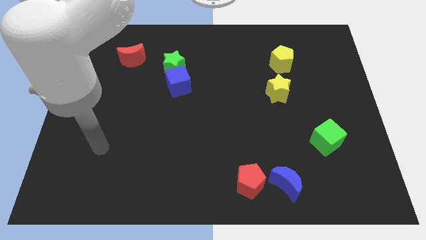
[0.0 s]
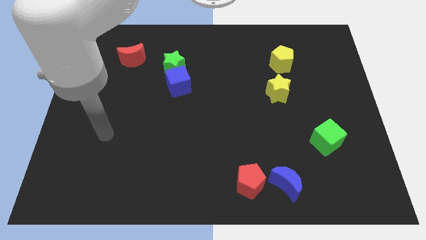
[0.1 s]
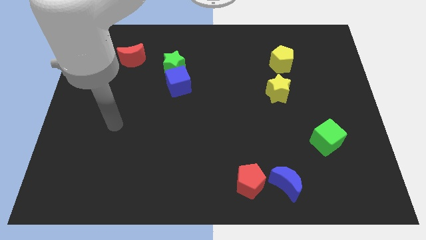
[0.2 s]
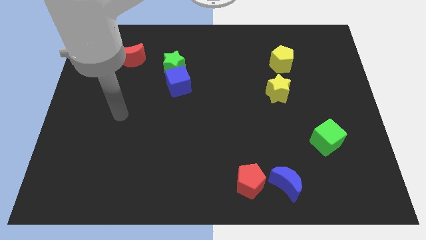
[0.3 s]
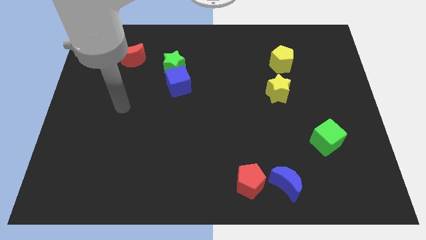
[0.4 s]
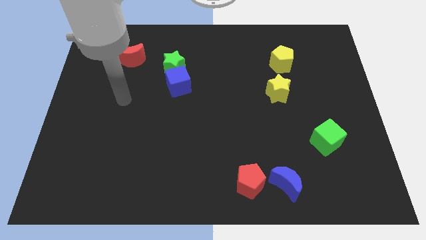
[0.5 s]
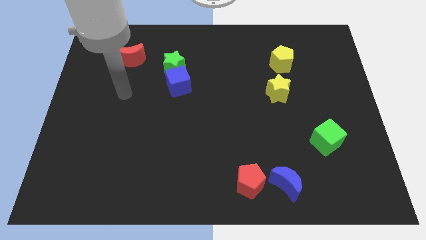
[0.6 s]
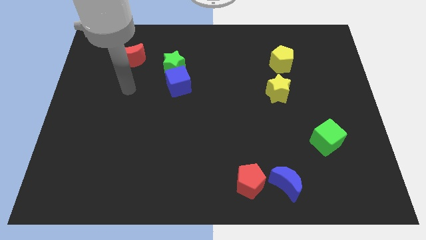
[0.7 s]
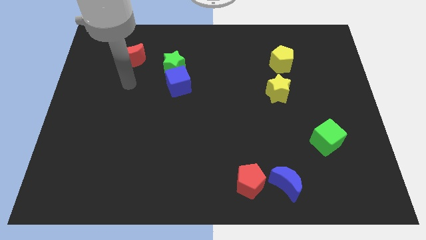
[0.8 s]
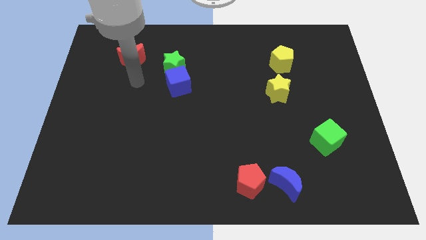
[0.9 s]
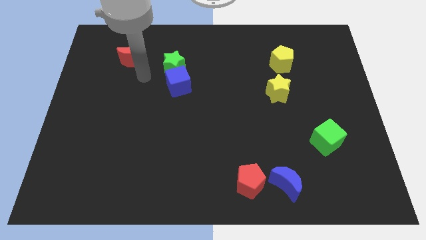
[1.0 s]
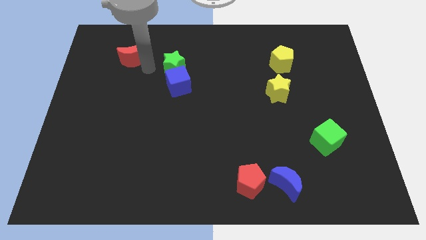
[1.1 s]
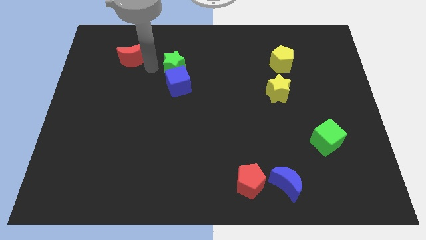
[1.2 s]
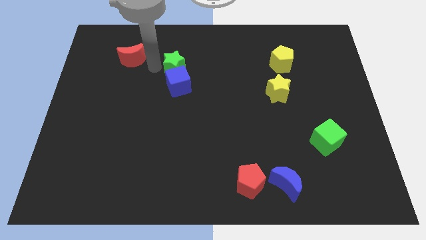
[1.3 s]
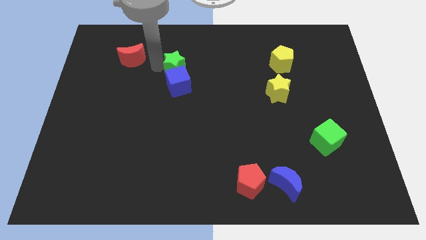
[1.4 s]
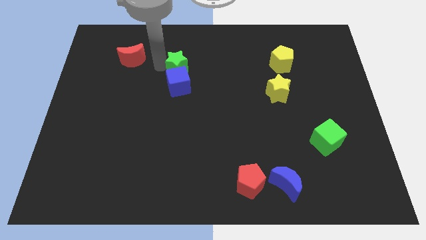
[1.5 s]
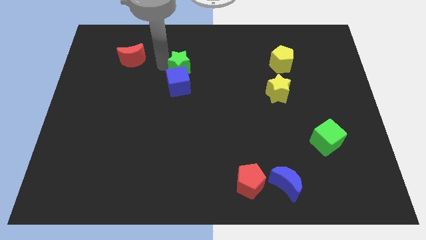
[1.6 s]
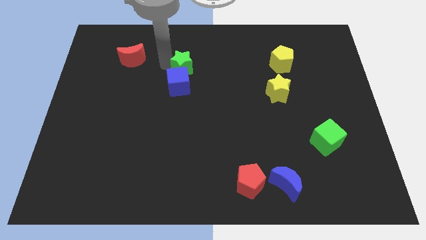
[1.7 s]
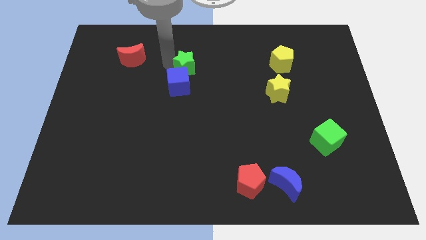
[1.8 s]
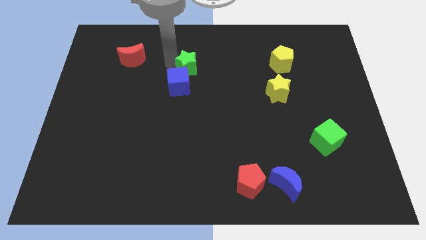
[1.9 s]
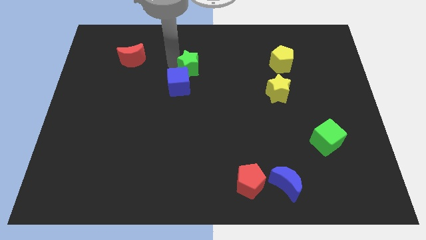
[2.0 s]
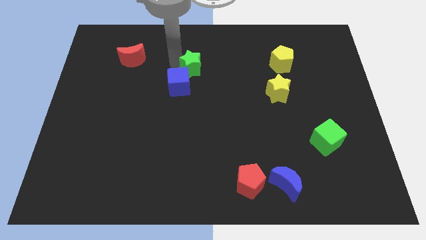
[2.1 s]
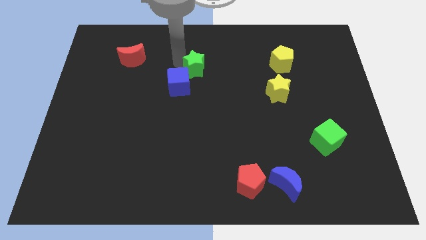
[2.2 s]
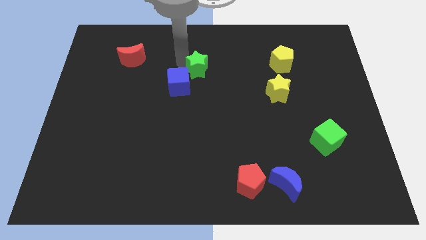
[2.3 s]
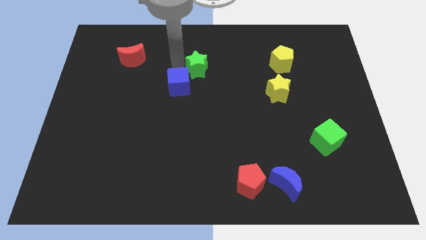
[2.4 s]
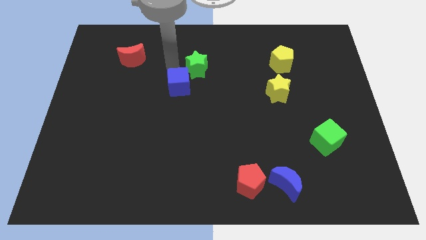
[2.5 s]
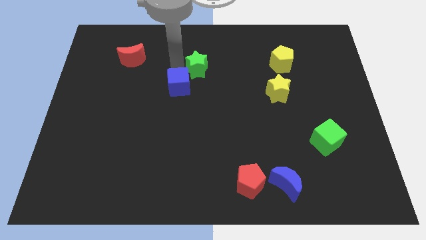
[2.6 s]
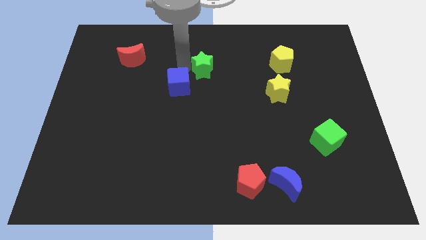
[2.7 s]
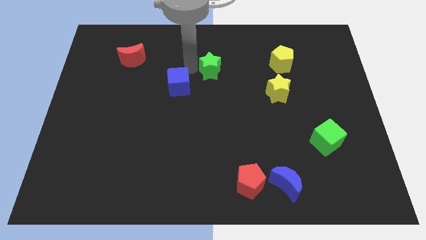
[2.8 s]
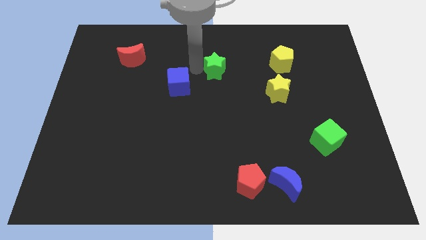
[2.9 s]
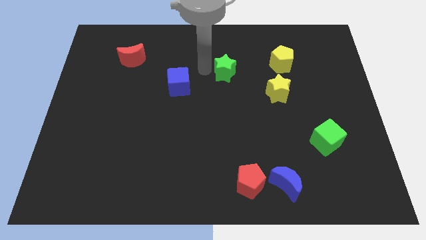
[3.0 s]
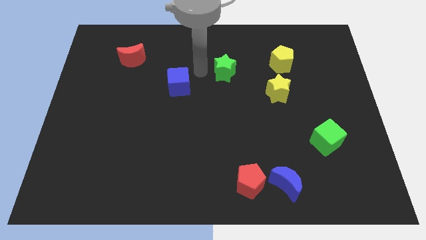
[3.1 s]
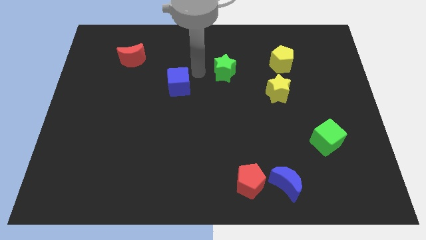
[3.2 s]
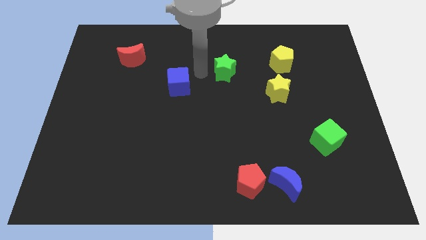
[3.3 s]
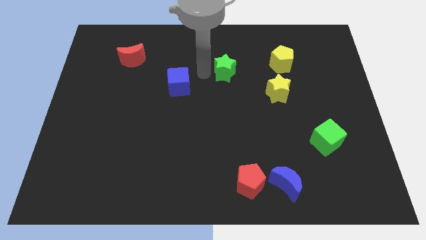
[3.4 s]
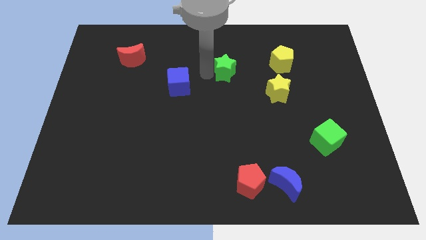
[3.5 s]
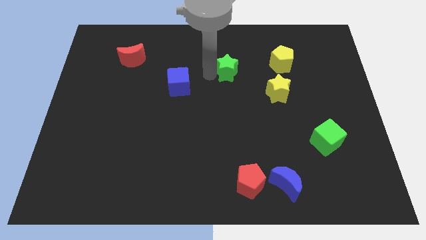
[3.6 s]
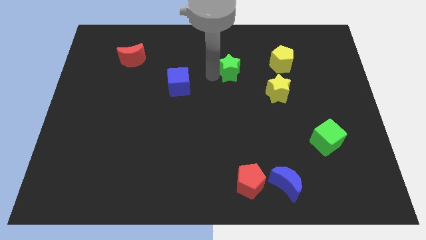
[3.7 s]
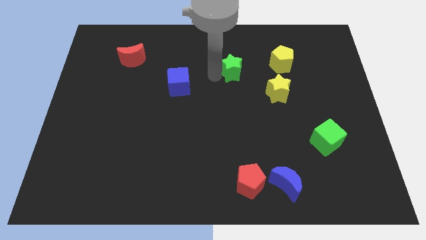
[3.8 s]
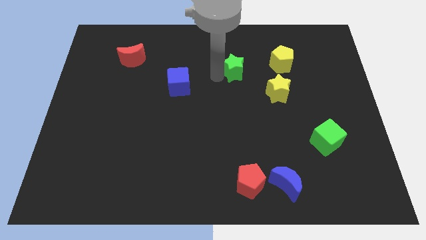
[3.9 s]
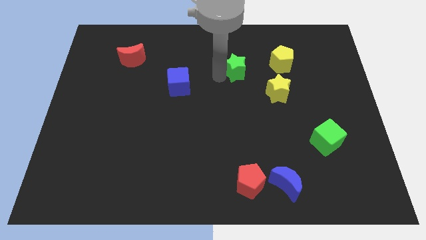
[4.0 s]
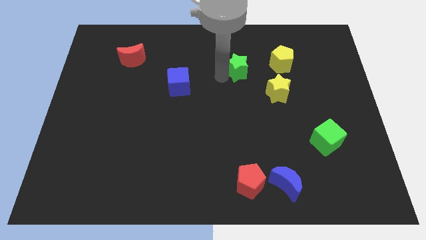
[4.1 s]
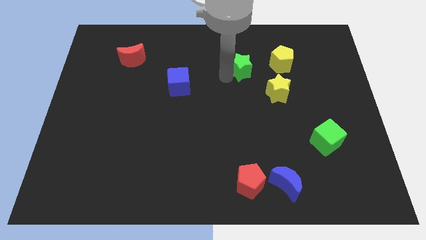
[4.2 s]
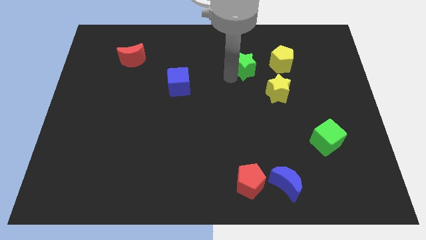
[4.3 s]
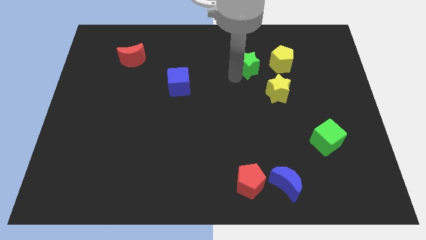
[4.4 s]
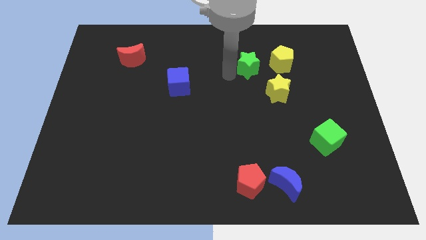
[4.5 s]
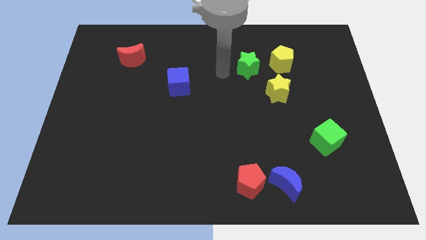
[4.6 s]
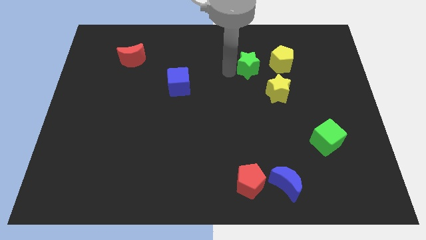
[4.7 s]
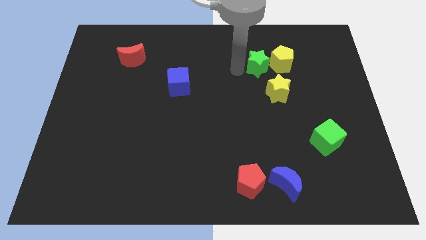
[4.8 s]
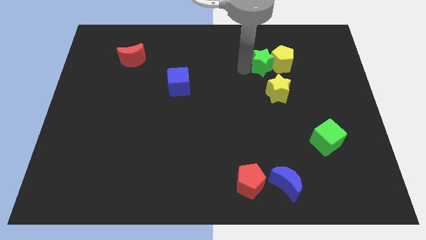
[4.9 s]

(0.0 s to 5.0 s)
put the green star to the yellow pentagon

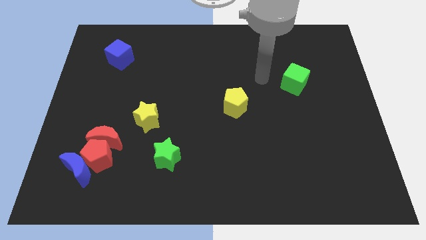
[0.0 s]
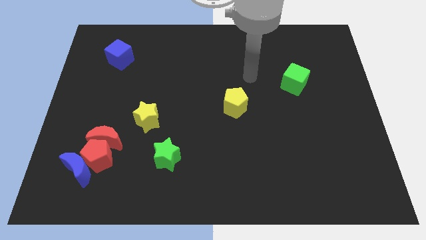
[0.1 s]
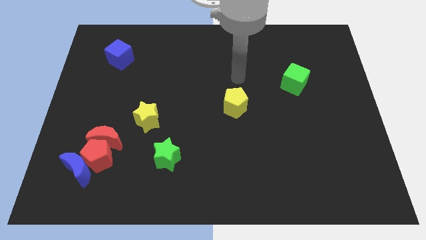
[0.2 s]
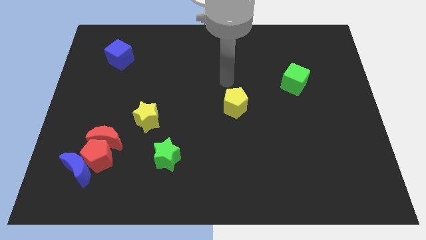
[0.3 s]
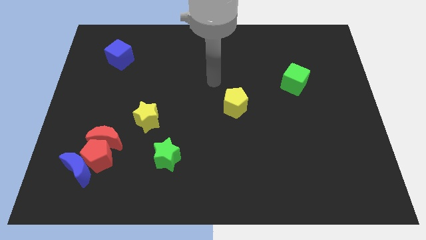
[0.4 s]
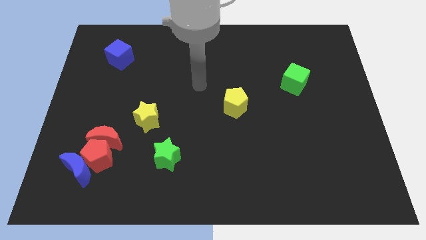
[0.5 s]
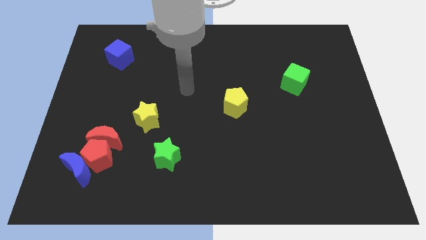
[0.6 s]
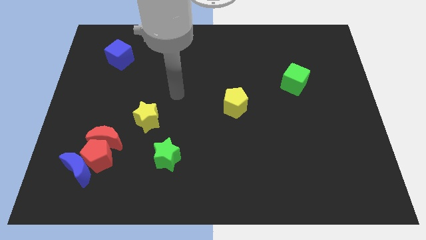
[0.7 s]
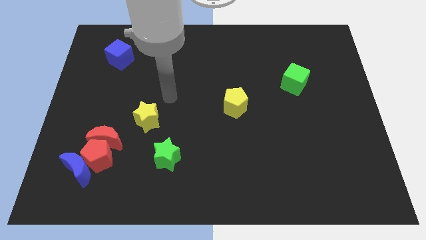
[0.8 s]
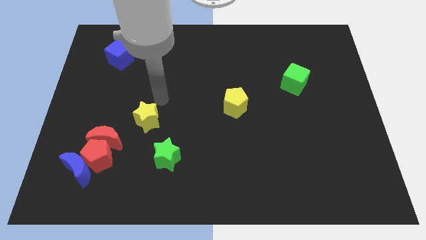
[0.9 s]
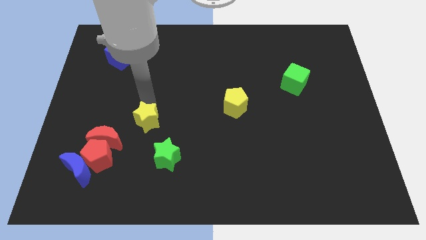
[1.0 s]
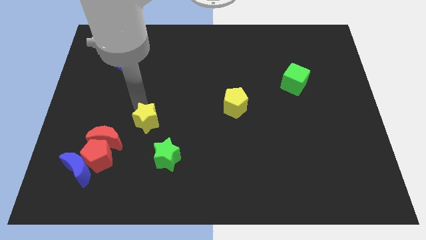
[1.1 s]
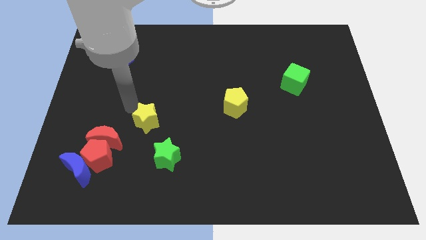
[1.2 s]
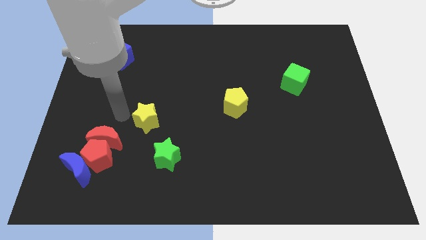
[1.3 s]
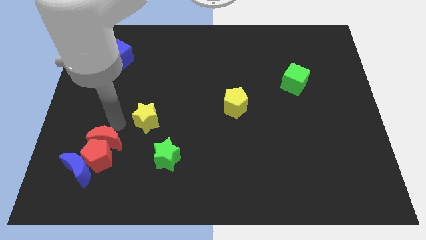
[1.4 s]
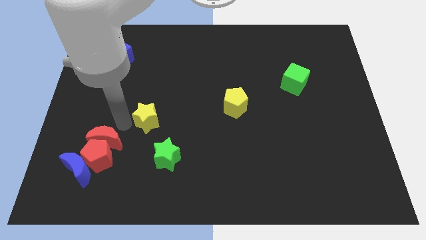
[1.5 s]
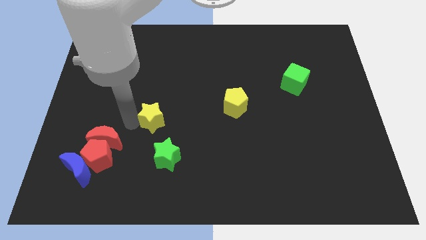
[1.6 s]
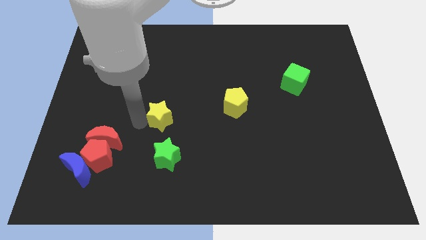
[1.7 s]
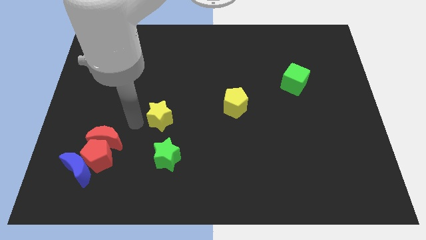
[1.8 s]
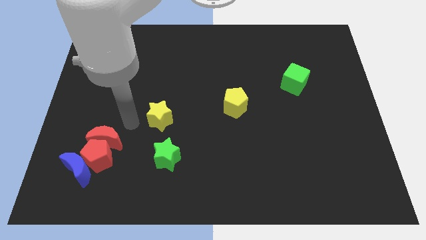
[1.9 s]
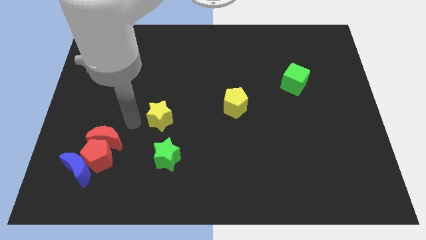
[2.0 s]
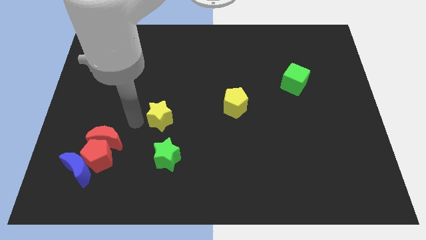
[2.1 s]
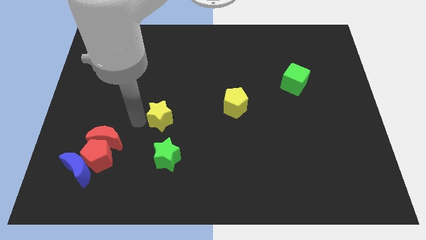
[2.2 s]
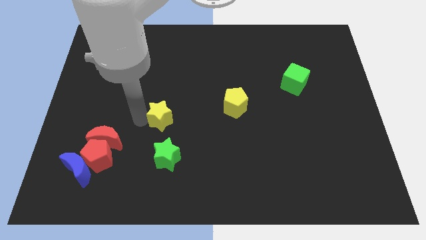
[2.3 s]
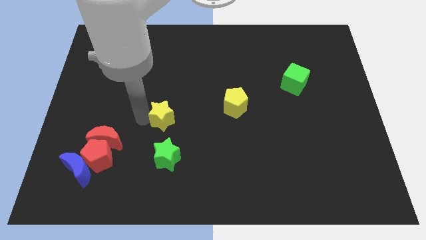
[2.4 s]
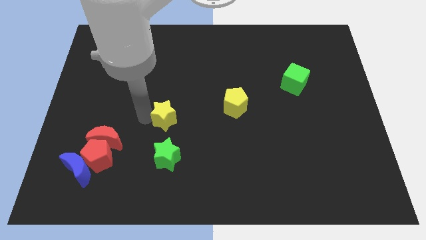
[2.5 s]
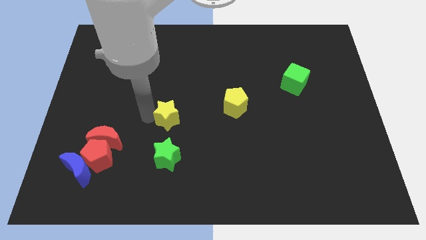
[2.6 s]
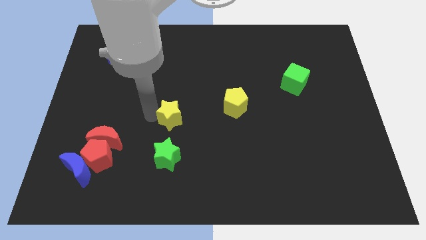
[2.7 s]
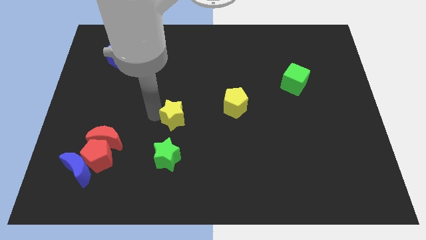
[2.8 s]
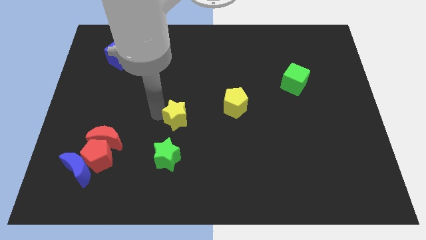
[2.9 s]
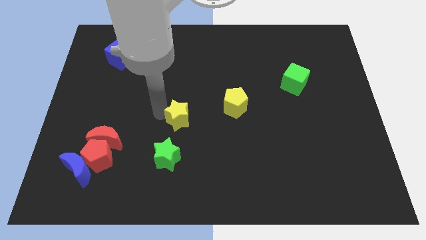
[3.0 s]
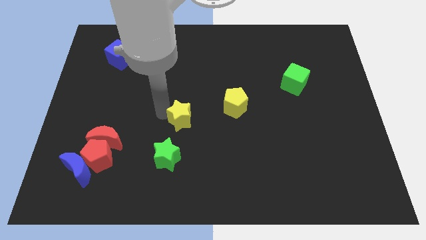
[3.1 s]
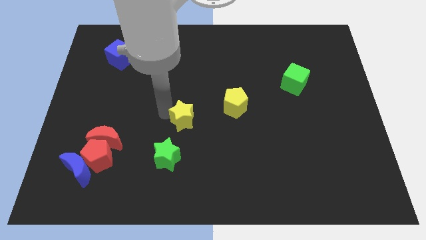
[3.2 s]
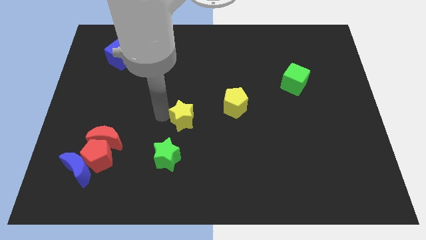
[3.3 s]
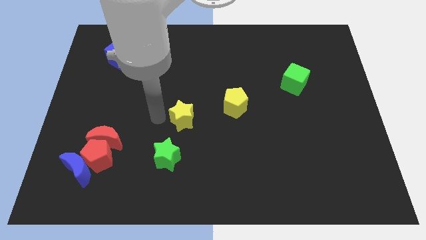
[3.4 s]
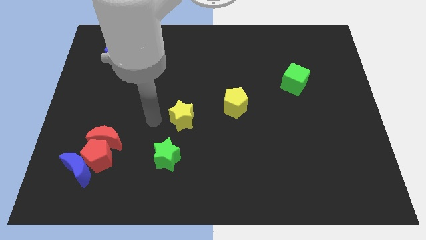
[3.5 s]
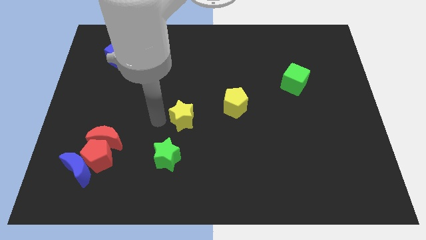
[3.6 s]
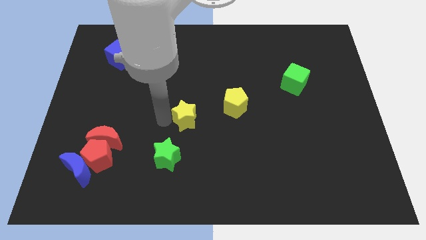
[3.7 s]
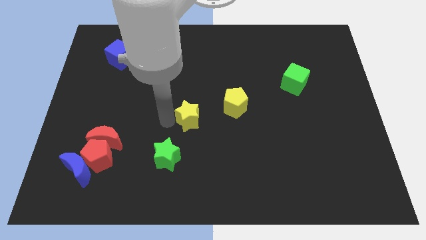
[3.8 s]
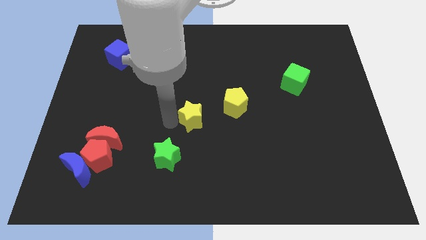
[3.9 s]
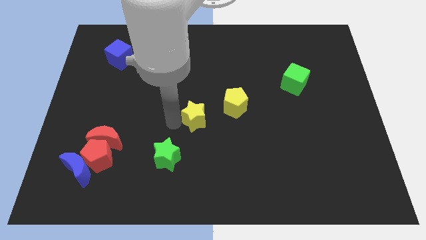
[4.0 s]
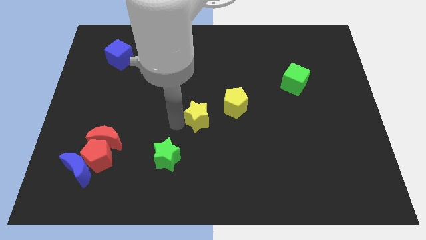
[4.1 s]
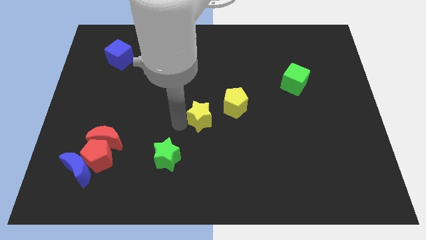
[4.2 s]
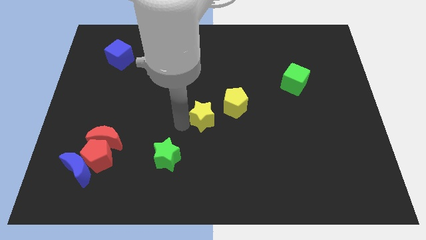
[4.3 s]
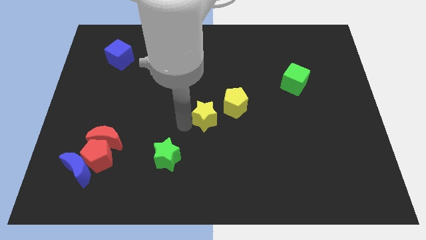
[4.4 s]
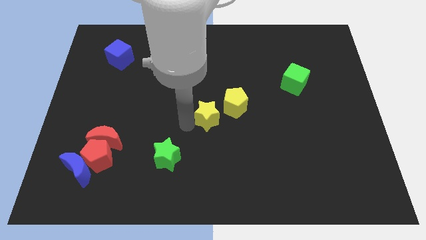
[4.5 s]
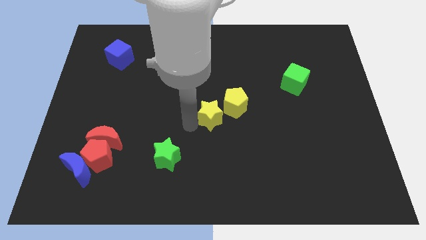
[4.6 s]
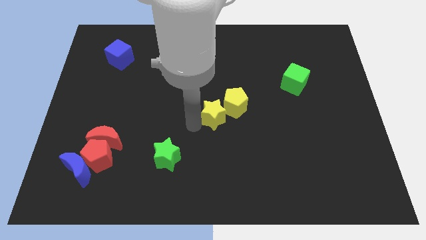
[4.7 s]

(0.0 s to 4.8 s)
slide the yellow star next to the yellow pentagon
